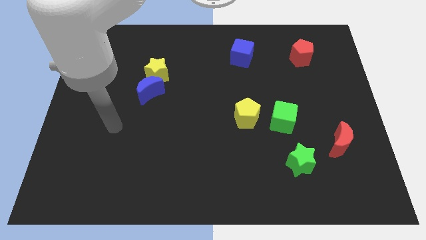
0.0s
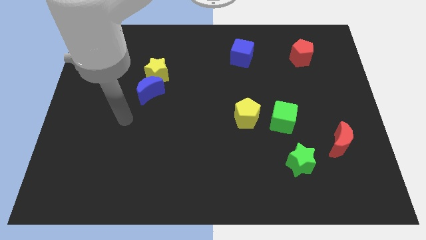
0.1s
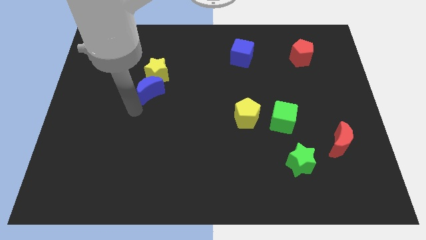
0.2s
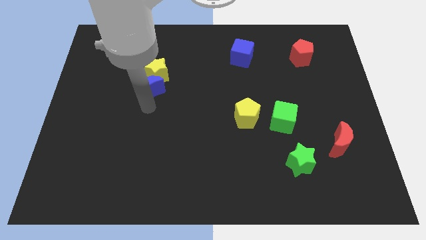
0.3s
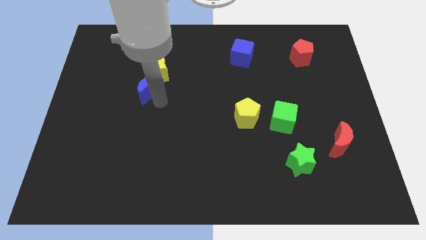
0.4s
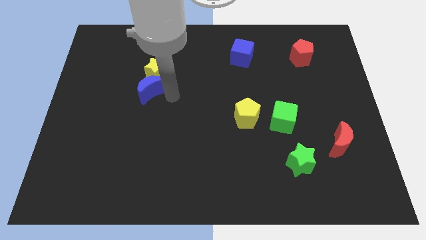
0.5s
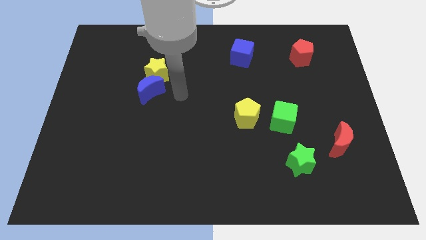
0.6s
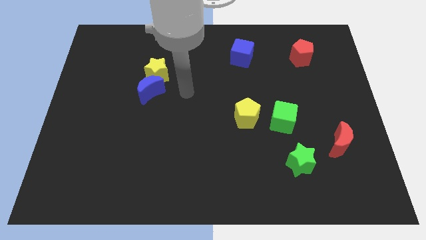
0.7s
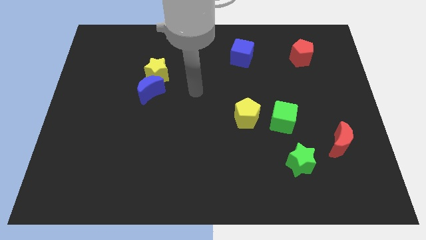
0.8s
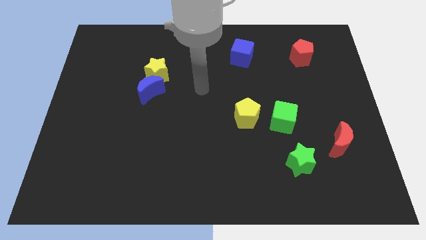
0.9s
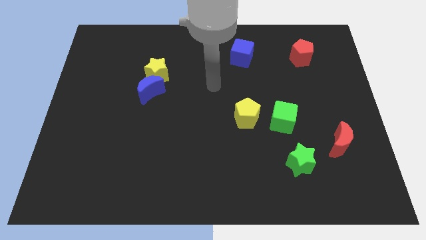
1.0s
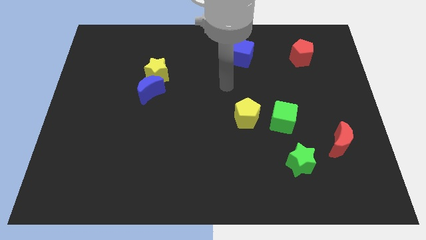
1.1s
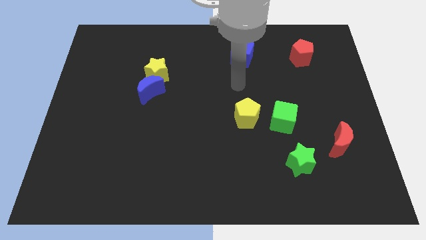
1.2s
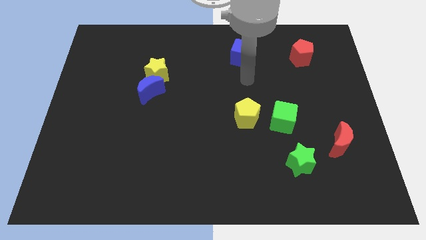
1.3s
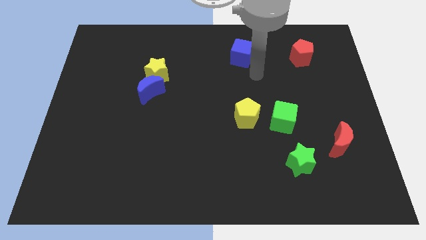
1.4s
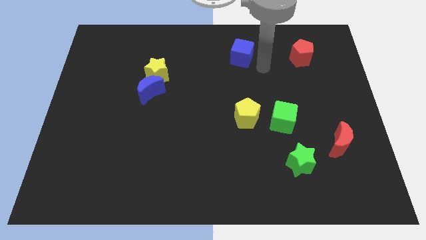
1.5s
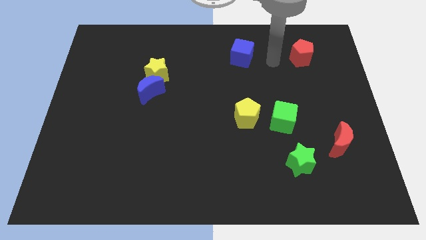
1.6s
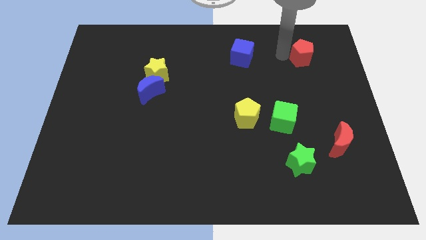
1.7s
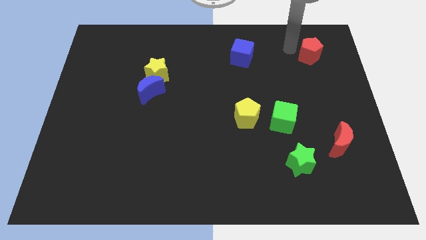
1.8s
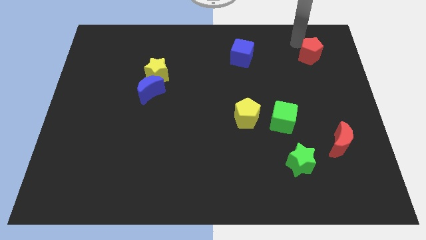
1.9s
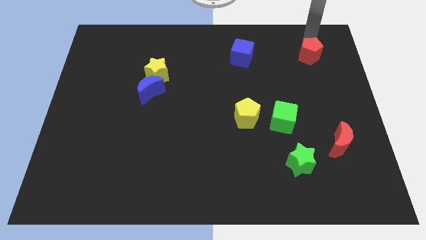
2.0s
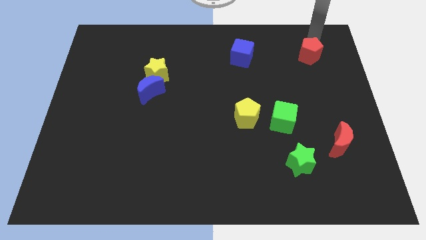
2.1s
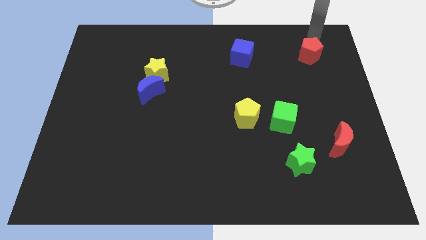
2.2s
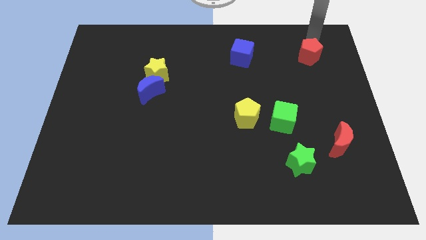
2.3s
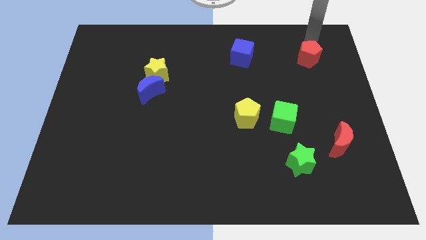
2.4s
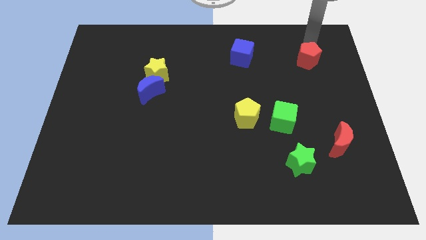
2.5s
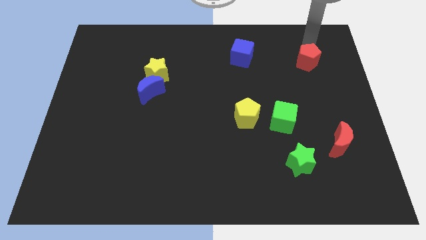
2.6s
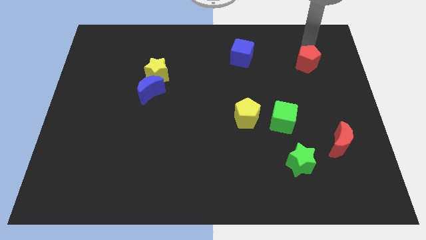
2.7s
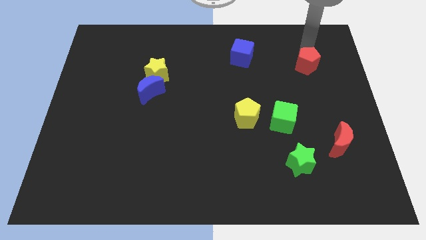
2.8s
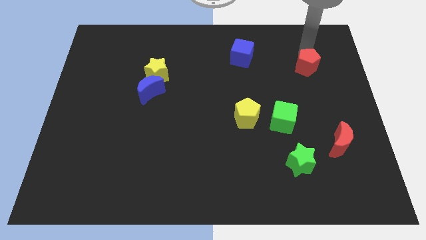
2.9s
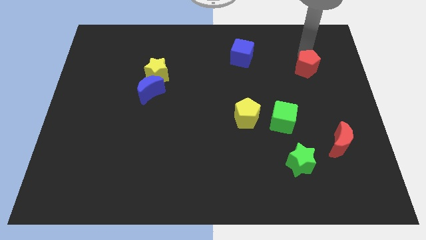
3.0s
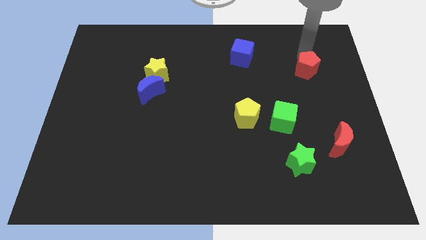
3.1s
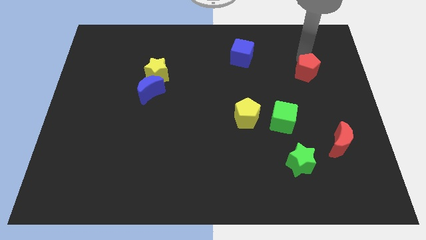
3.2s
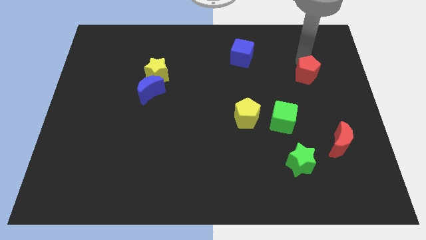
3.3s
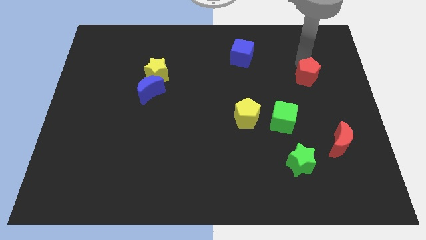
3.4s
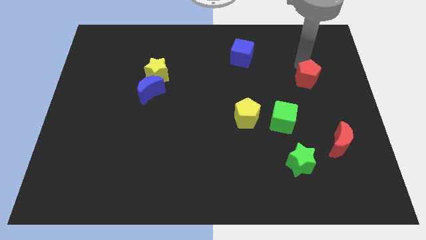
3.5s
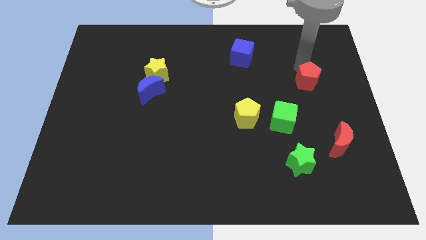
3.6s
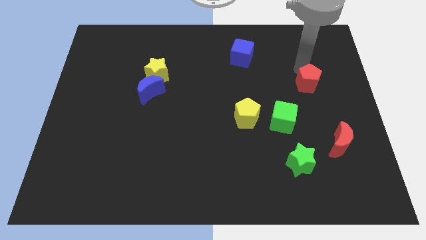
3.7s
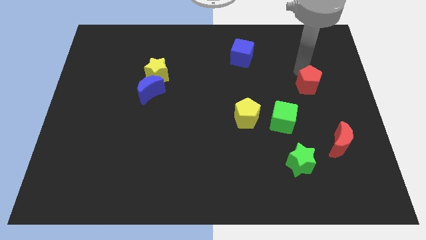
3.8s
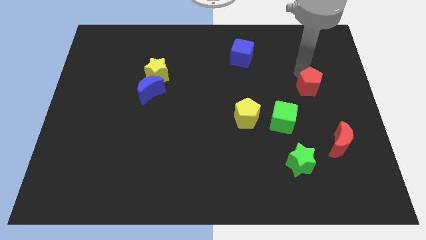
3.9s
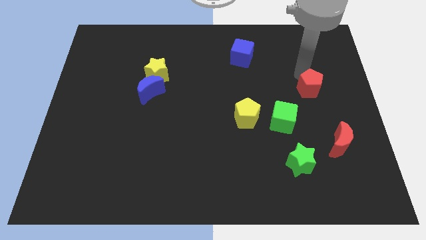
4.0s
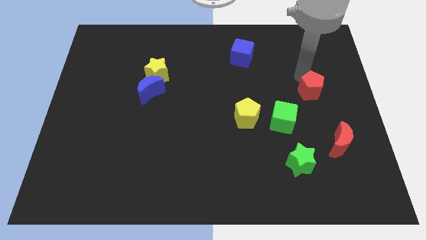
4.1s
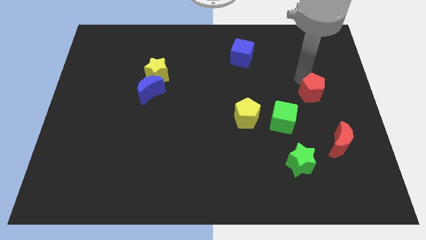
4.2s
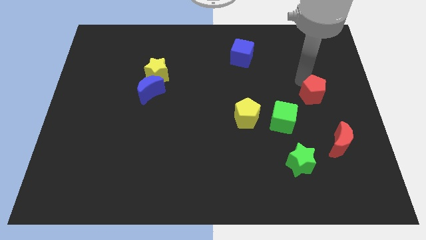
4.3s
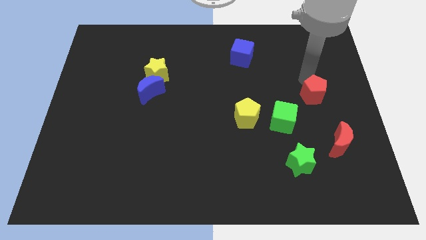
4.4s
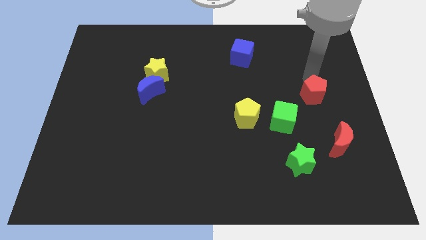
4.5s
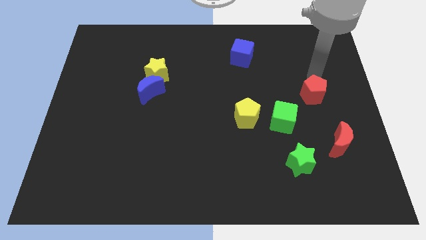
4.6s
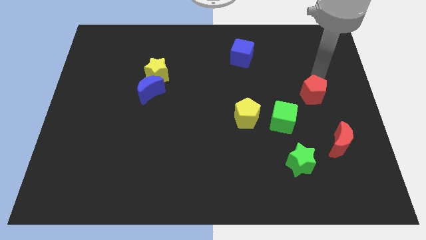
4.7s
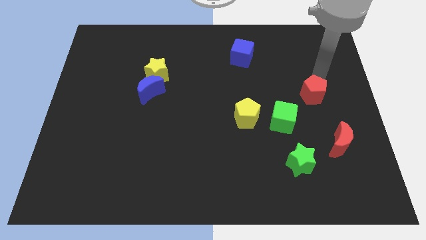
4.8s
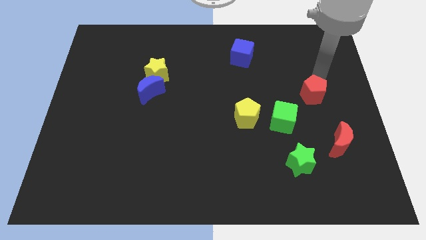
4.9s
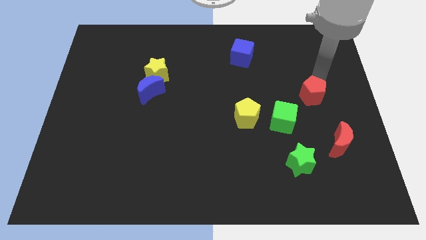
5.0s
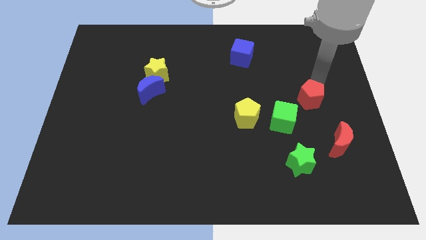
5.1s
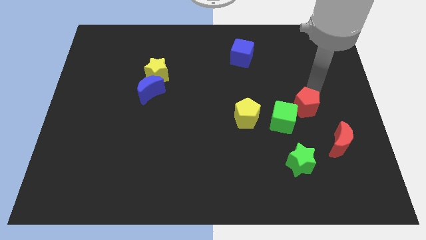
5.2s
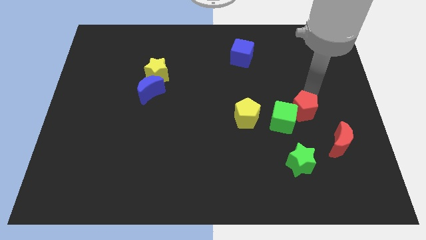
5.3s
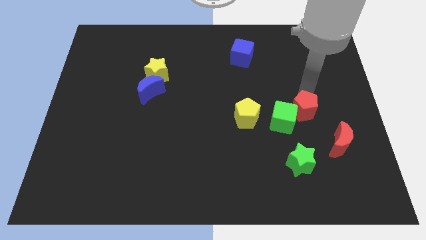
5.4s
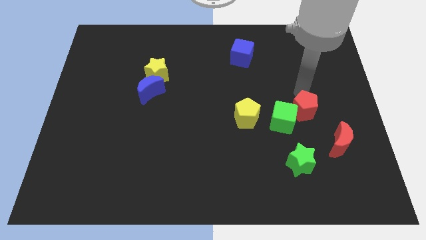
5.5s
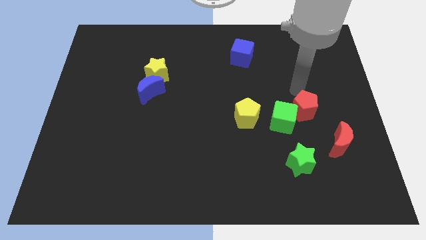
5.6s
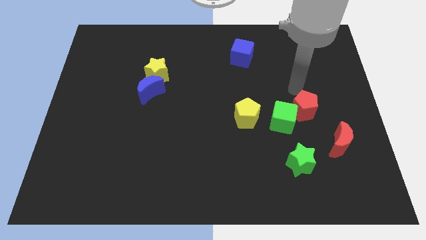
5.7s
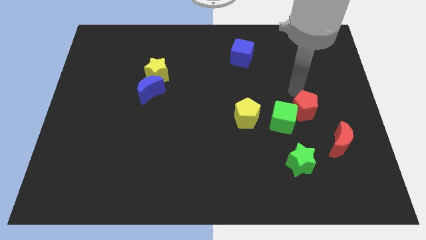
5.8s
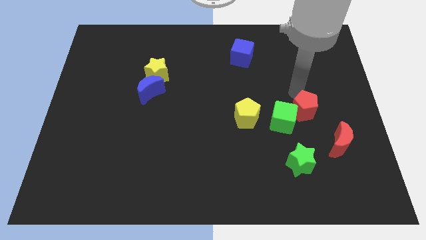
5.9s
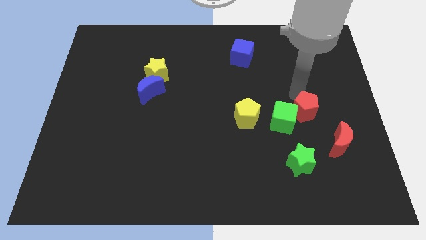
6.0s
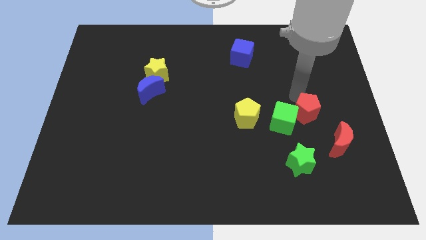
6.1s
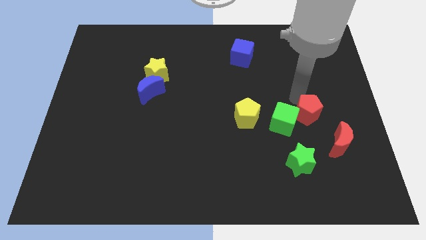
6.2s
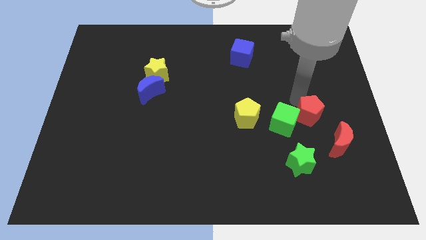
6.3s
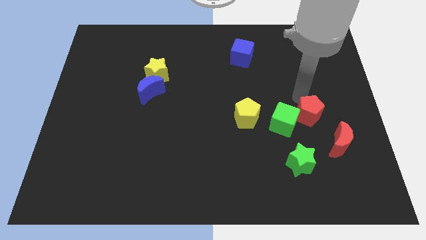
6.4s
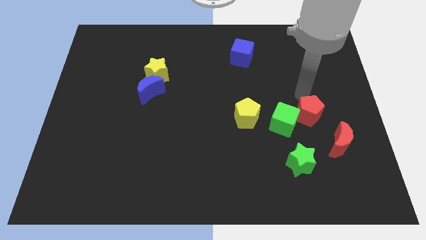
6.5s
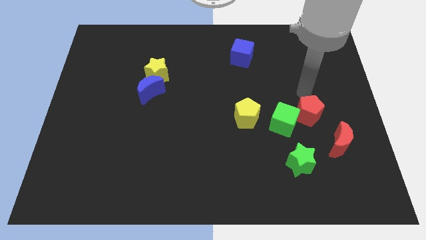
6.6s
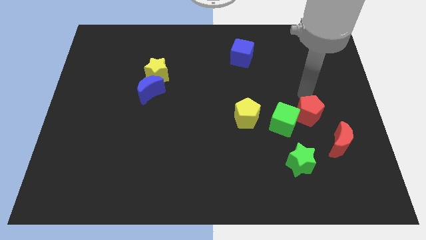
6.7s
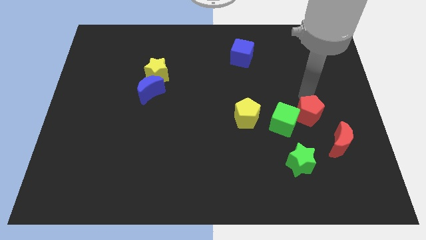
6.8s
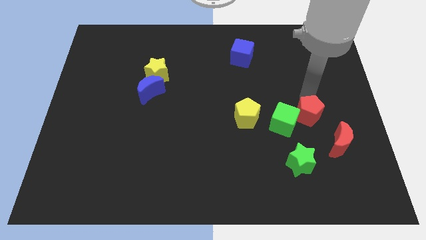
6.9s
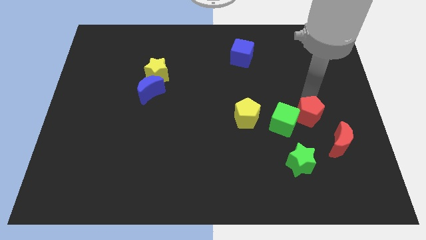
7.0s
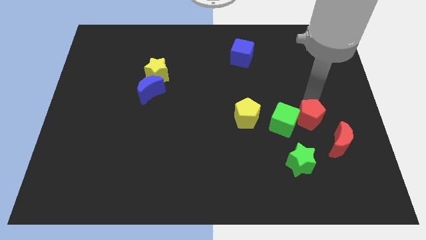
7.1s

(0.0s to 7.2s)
move the red pentagon downwards

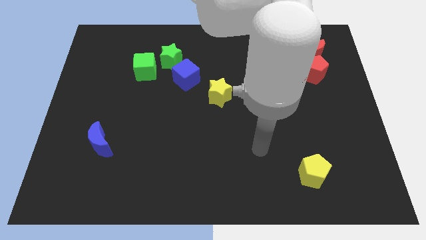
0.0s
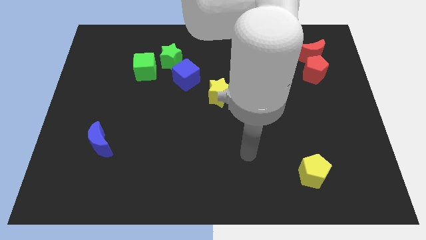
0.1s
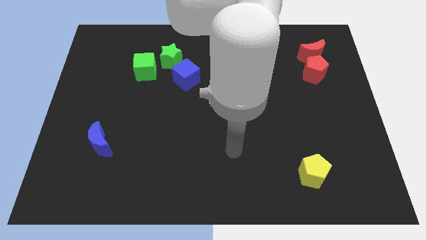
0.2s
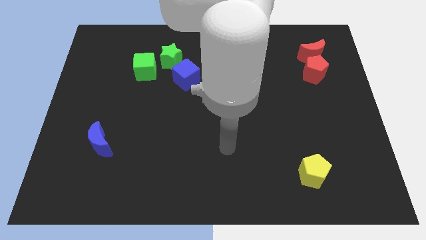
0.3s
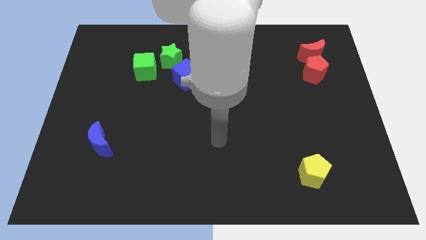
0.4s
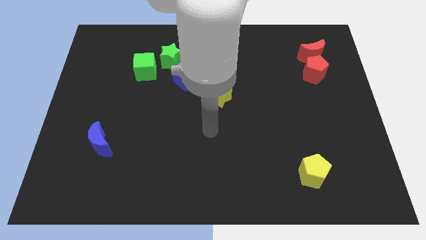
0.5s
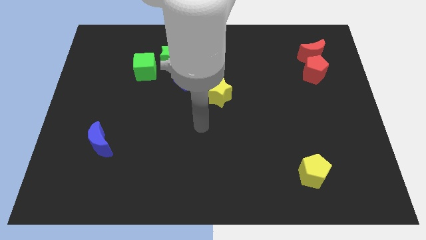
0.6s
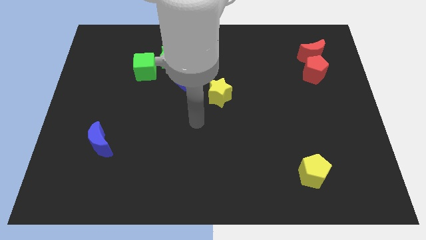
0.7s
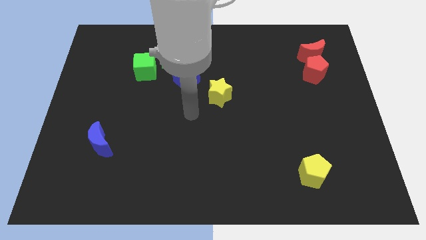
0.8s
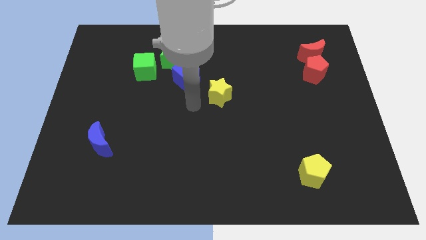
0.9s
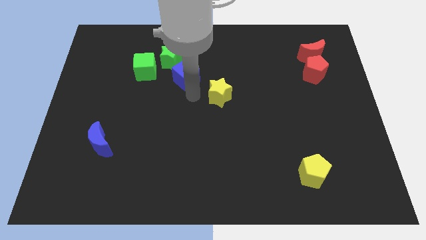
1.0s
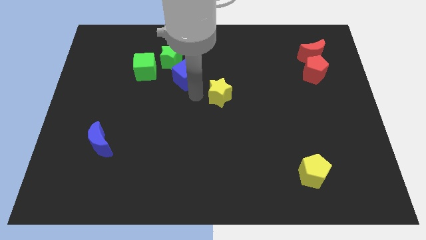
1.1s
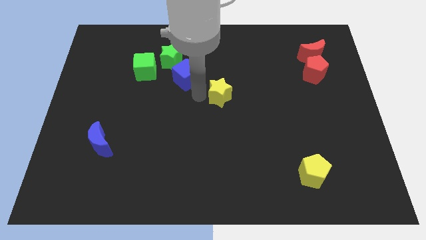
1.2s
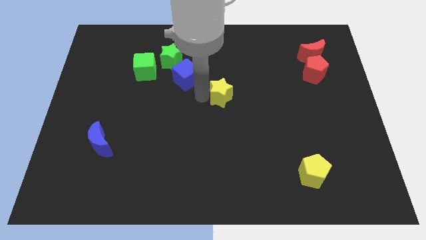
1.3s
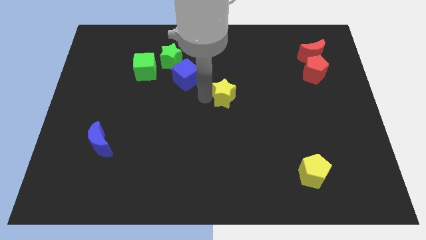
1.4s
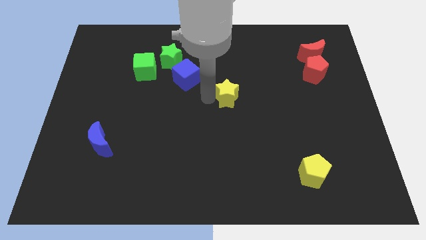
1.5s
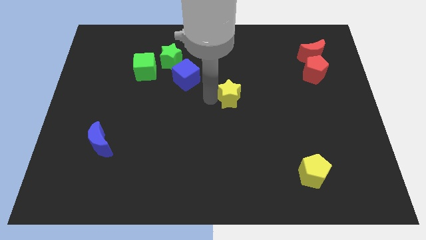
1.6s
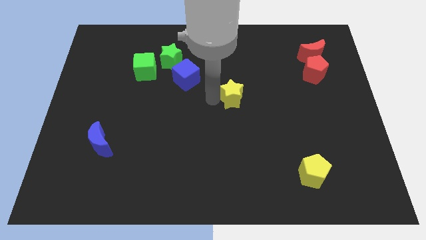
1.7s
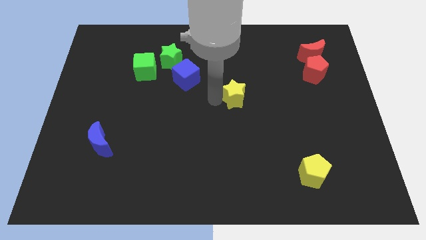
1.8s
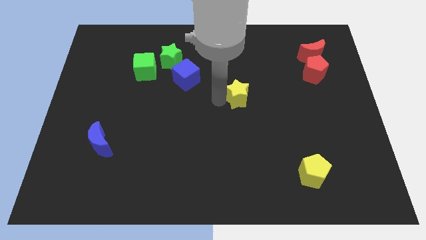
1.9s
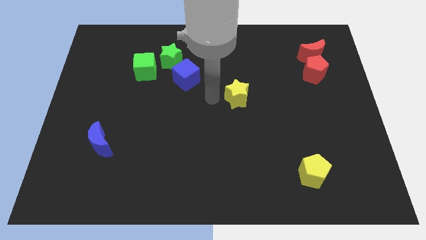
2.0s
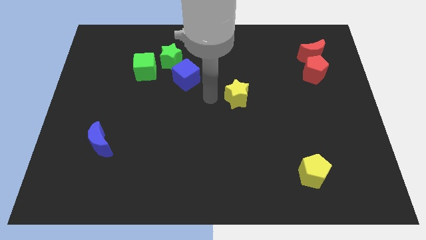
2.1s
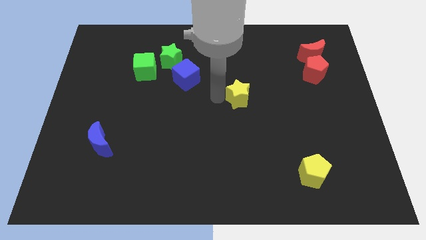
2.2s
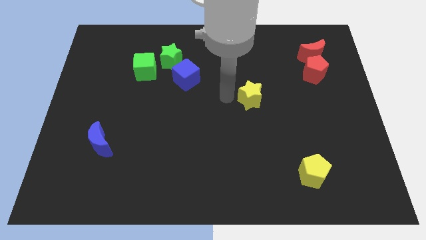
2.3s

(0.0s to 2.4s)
push the yellow star a bit to the right
